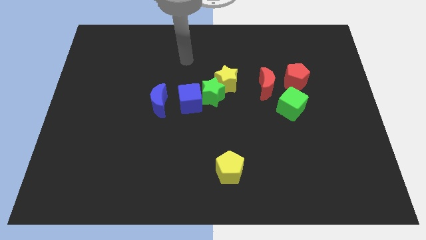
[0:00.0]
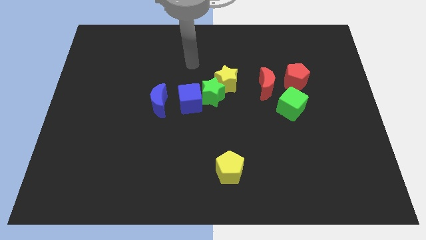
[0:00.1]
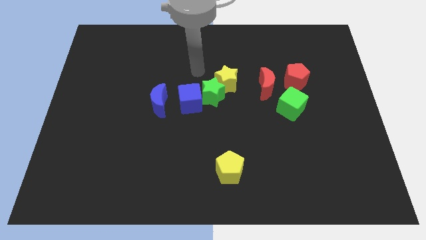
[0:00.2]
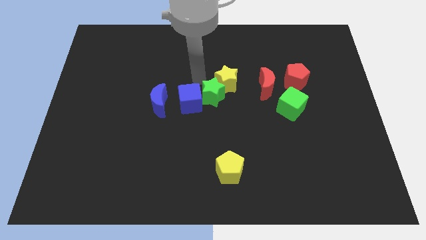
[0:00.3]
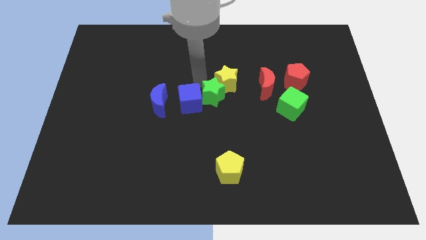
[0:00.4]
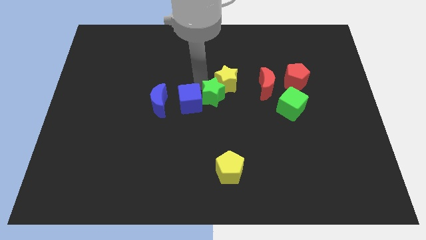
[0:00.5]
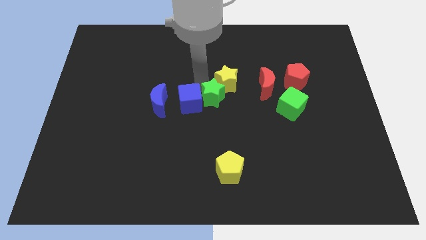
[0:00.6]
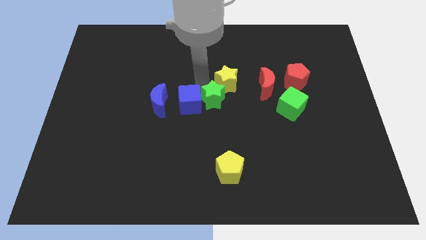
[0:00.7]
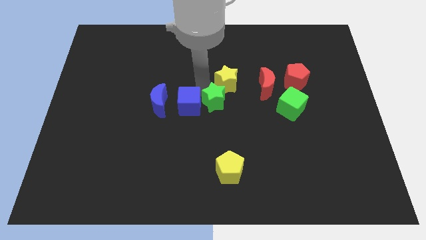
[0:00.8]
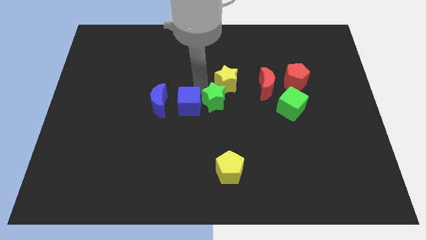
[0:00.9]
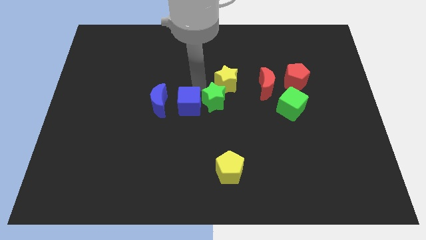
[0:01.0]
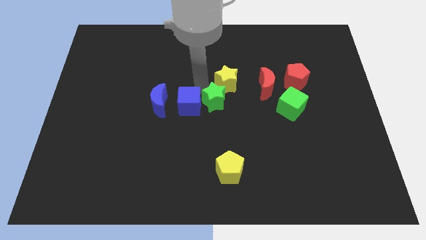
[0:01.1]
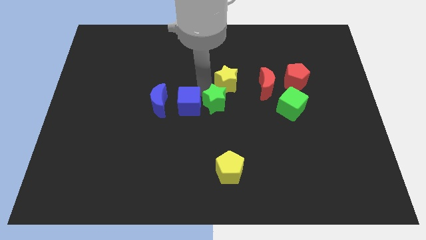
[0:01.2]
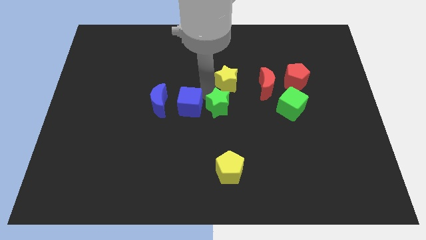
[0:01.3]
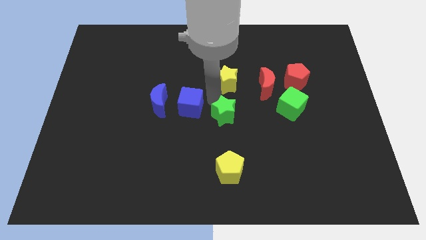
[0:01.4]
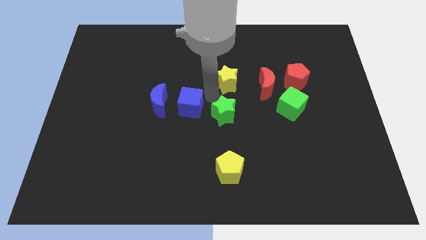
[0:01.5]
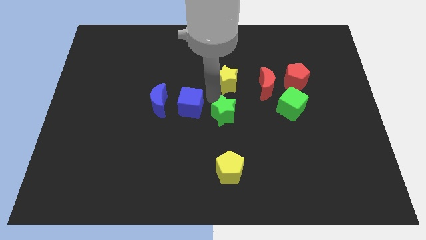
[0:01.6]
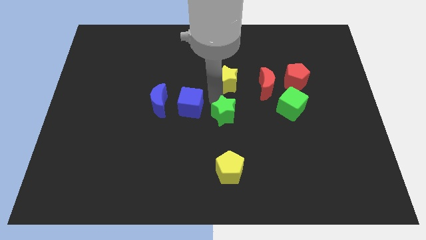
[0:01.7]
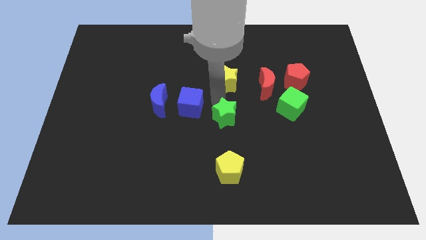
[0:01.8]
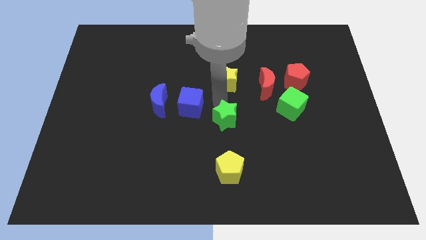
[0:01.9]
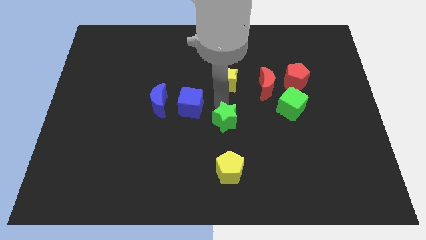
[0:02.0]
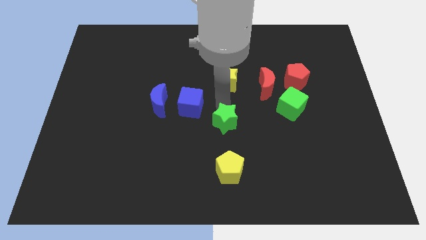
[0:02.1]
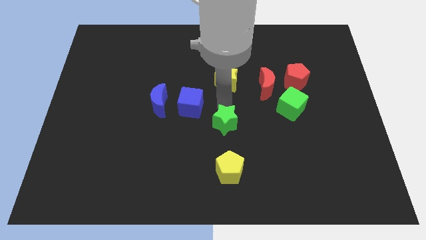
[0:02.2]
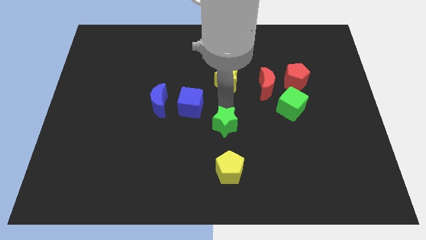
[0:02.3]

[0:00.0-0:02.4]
separate the green star from the blue cube and yellow star

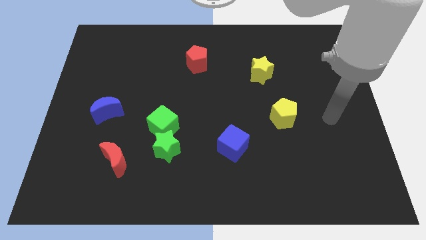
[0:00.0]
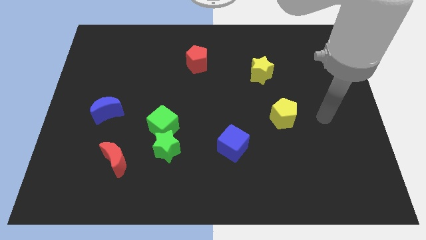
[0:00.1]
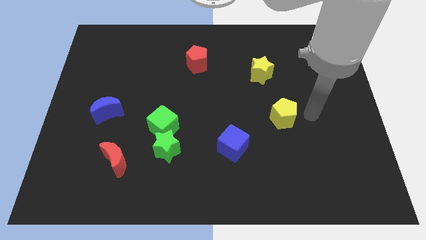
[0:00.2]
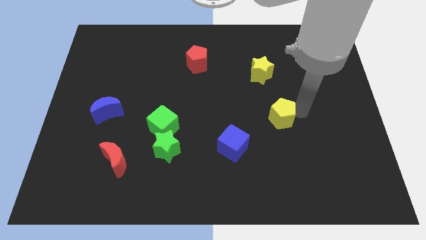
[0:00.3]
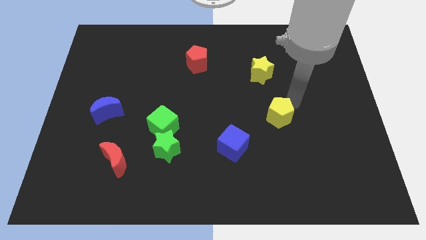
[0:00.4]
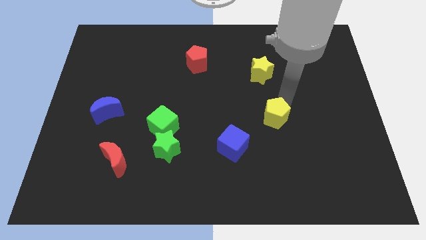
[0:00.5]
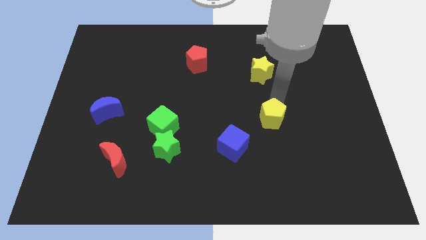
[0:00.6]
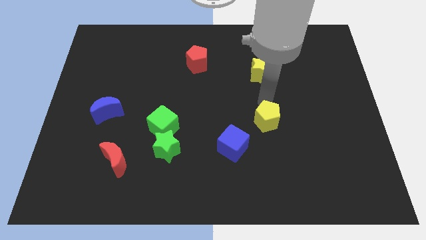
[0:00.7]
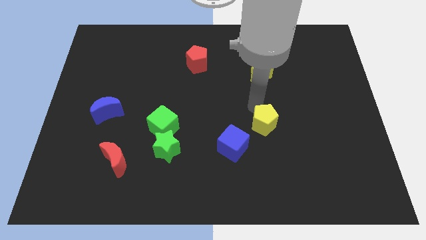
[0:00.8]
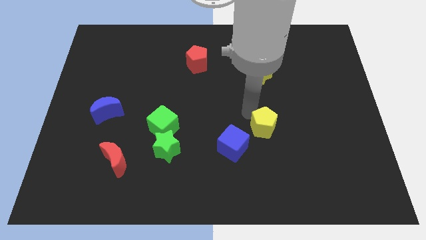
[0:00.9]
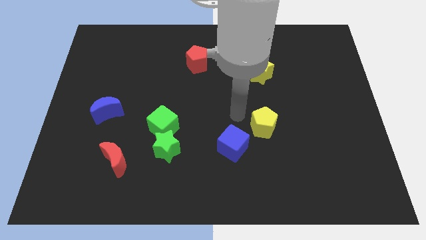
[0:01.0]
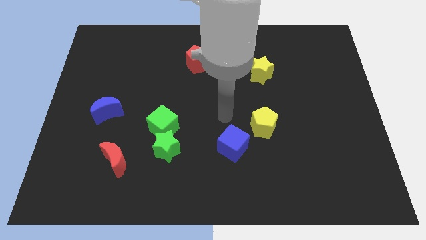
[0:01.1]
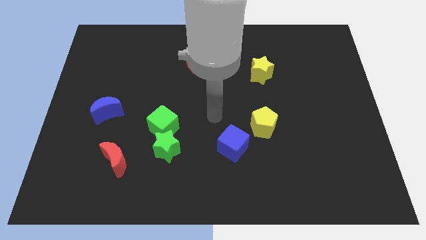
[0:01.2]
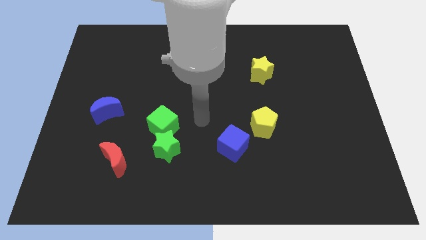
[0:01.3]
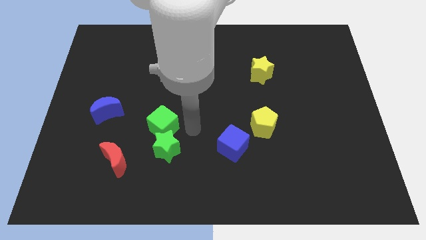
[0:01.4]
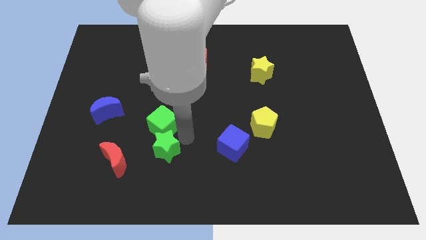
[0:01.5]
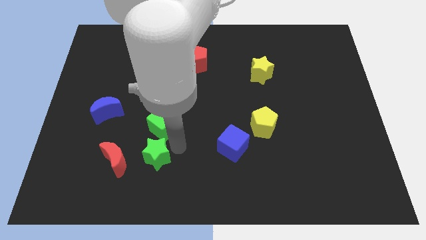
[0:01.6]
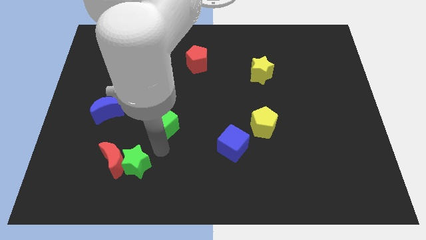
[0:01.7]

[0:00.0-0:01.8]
separate the green cube from the green star

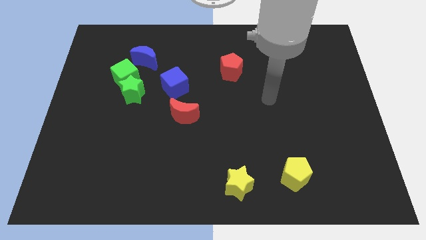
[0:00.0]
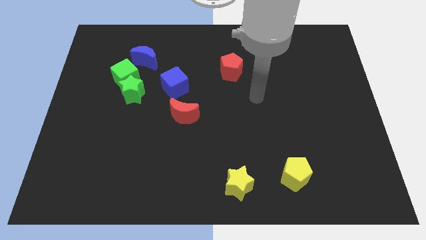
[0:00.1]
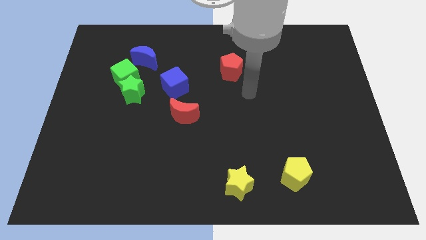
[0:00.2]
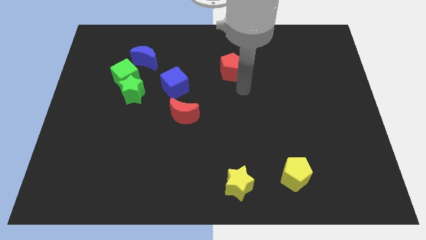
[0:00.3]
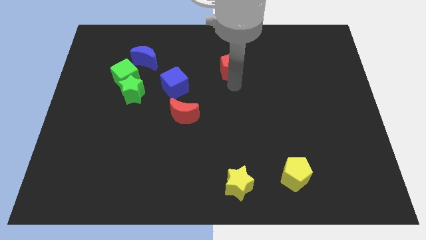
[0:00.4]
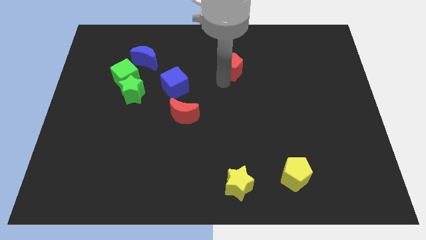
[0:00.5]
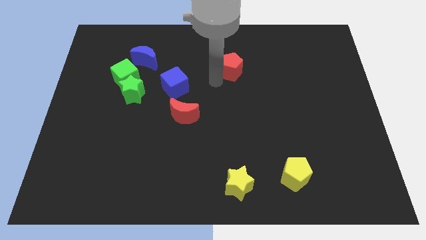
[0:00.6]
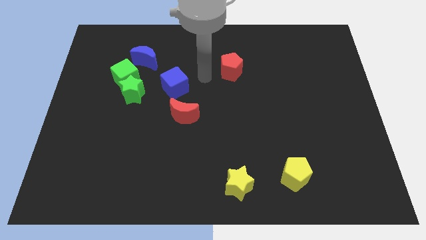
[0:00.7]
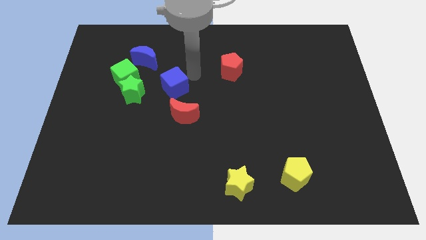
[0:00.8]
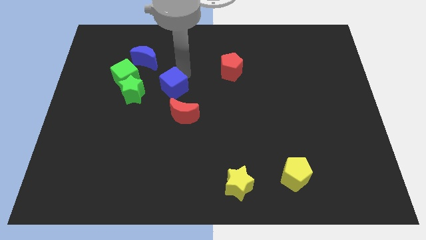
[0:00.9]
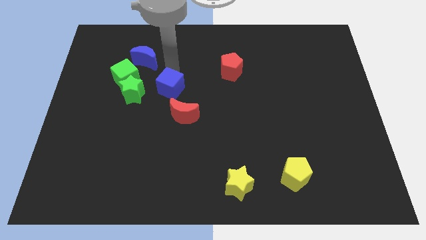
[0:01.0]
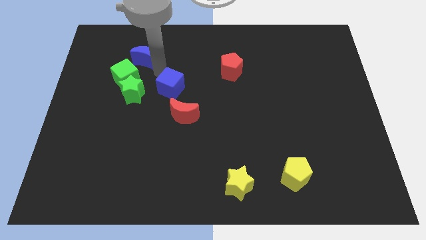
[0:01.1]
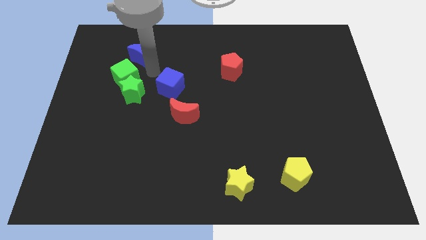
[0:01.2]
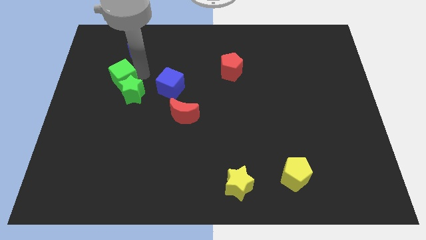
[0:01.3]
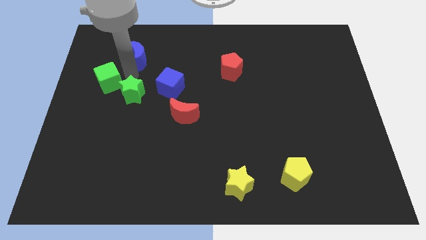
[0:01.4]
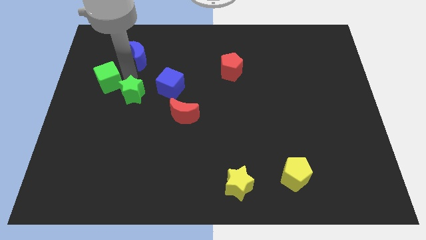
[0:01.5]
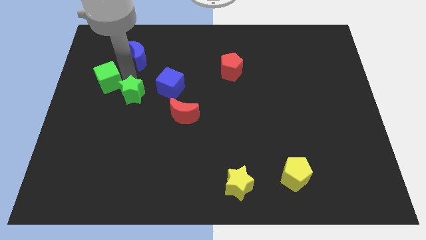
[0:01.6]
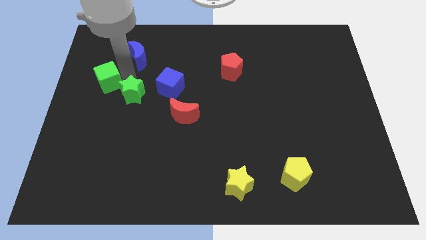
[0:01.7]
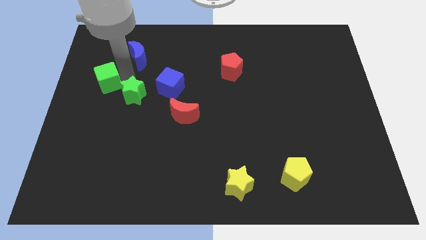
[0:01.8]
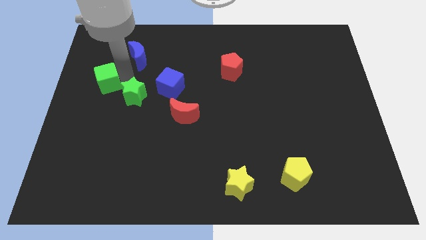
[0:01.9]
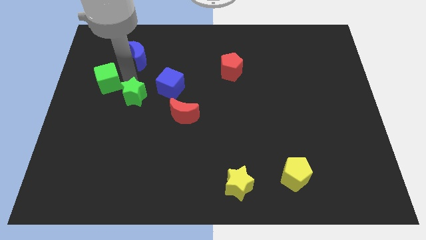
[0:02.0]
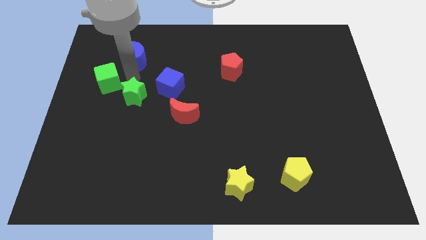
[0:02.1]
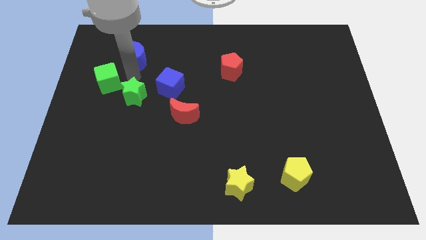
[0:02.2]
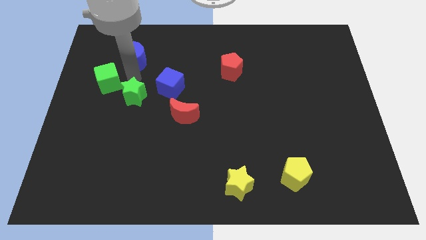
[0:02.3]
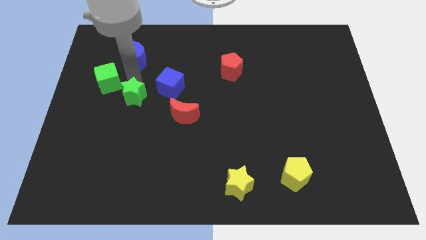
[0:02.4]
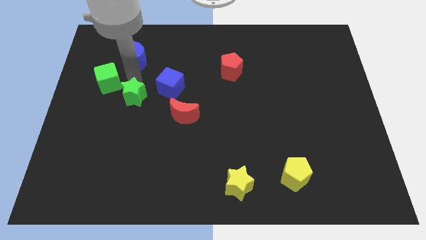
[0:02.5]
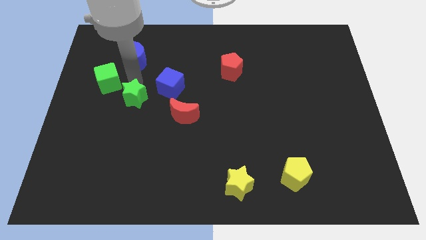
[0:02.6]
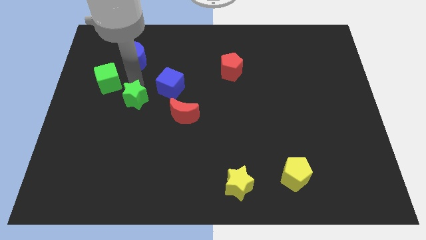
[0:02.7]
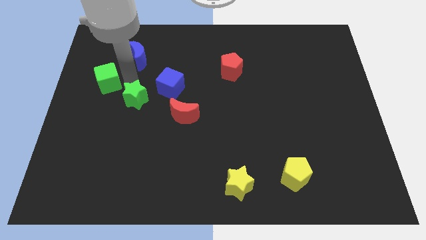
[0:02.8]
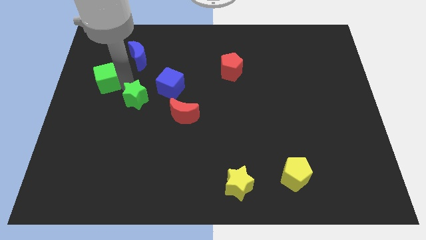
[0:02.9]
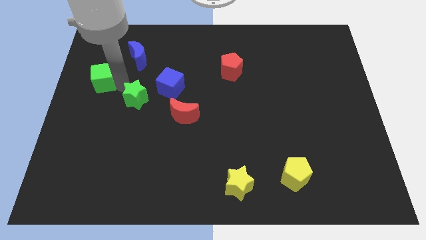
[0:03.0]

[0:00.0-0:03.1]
pull the green star apart from the green cube

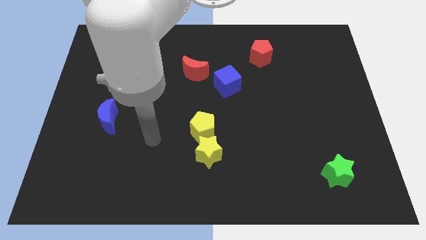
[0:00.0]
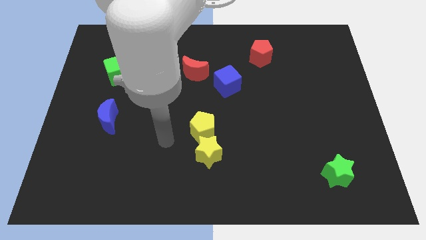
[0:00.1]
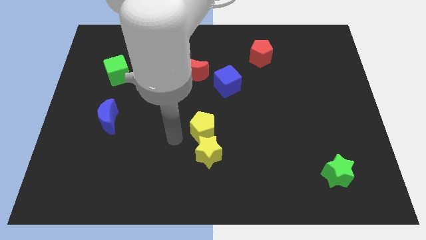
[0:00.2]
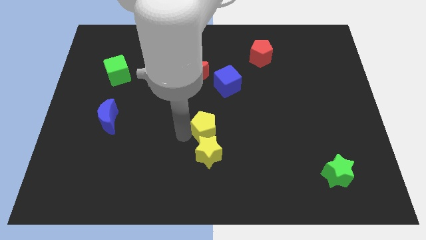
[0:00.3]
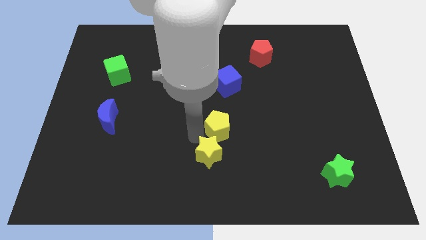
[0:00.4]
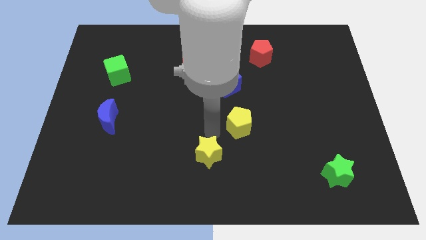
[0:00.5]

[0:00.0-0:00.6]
move the yellow star away from the yellow pentagon

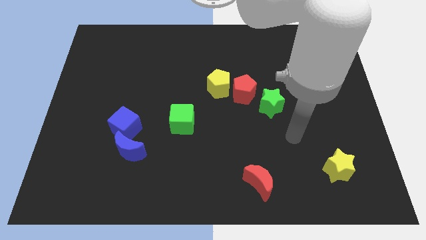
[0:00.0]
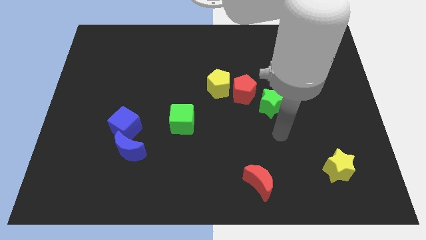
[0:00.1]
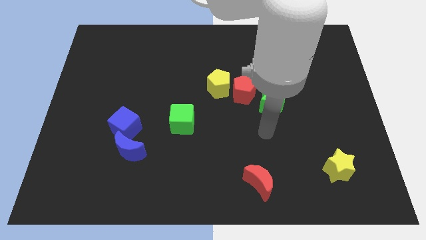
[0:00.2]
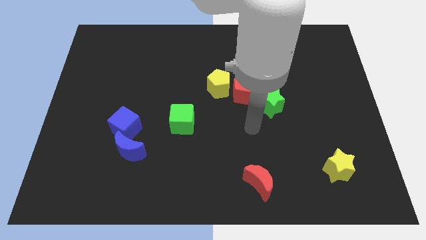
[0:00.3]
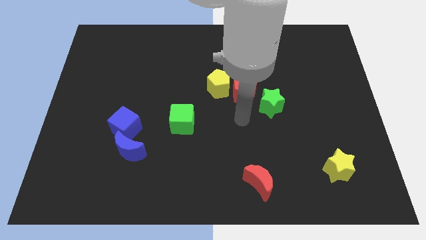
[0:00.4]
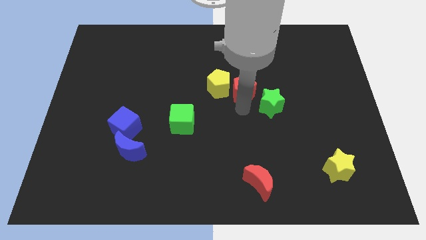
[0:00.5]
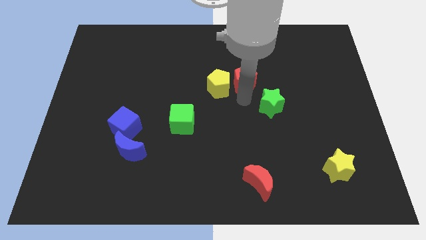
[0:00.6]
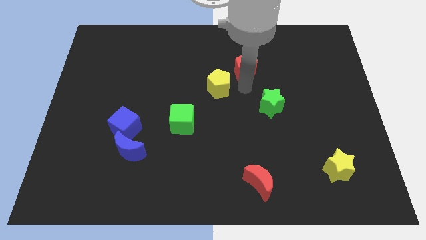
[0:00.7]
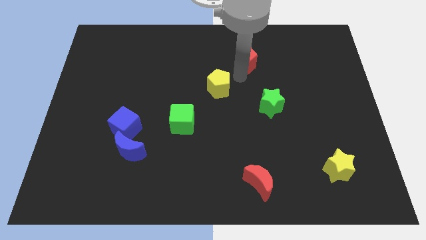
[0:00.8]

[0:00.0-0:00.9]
separate the yellow pentagon from the red pentagon

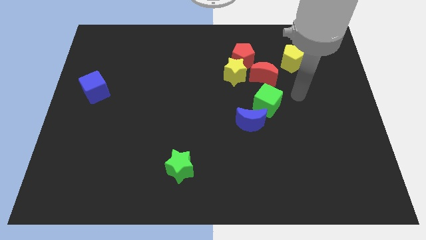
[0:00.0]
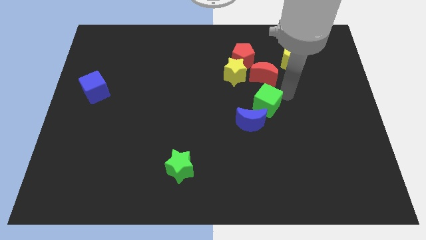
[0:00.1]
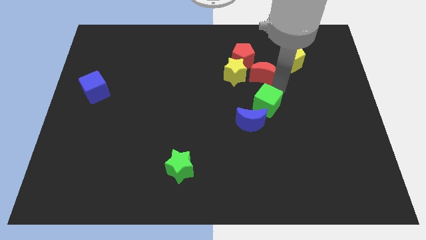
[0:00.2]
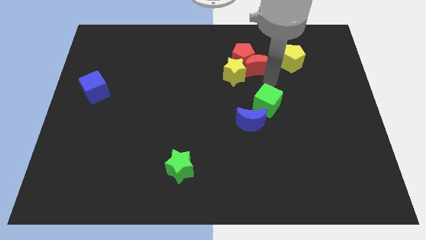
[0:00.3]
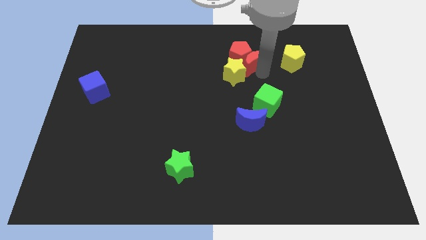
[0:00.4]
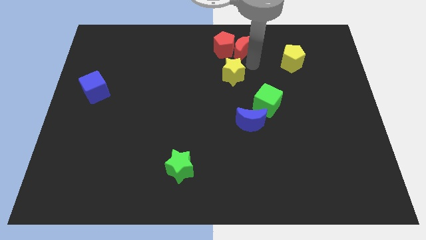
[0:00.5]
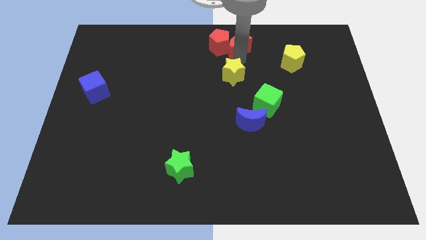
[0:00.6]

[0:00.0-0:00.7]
move the yellow star away from the red pentagon and red moon

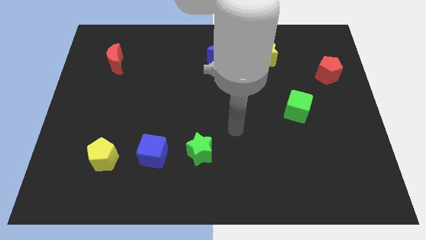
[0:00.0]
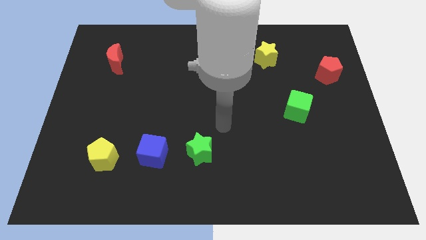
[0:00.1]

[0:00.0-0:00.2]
pull the green star apart from the blue cube
